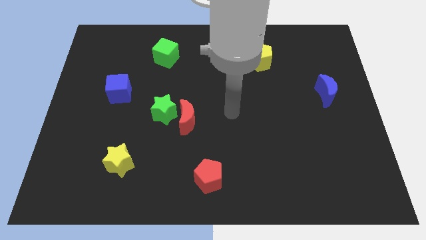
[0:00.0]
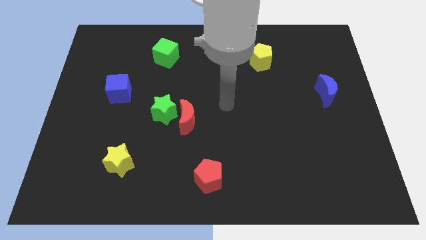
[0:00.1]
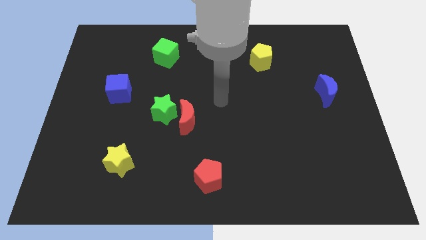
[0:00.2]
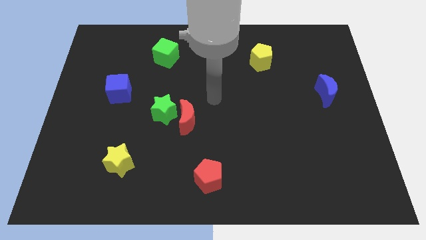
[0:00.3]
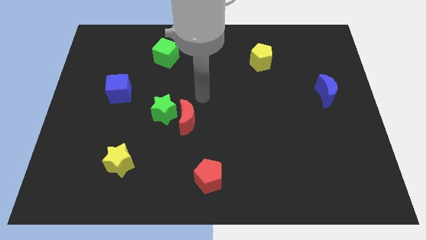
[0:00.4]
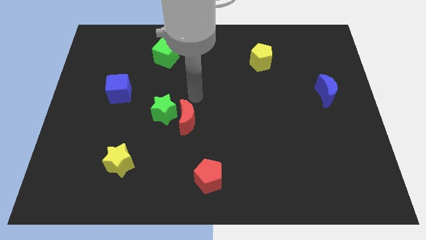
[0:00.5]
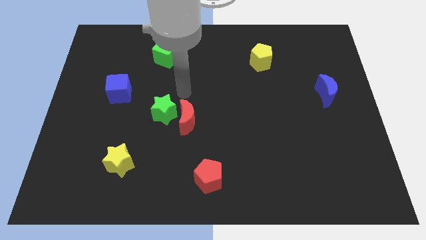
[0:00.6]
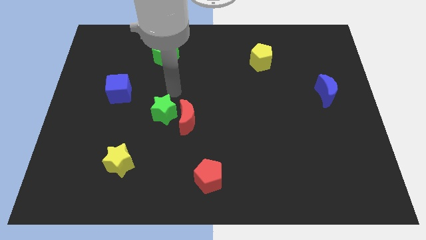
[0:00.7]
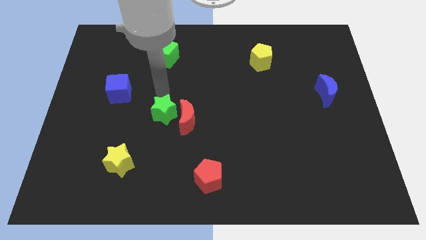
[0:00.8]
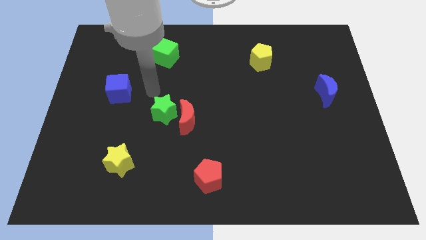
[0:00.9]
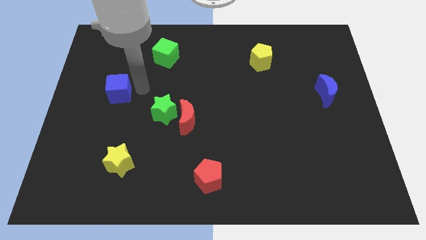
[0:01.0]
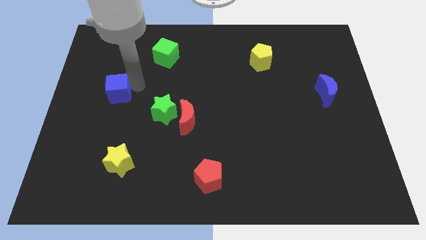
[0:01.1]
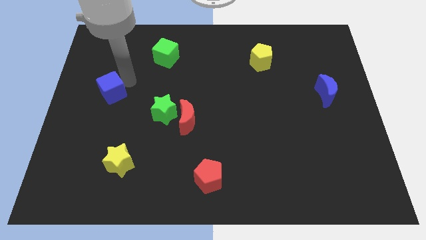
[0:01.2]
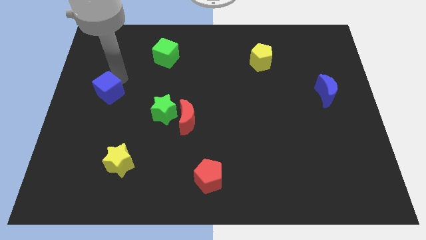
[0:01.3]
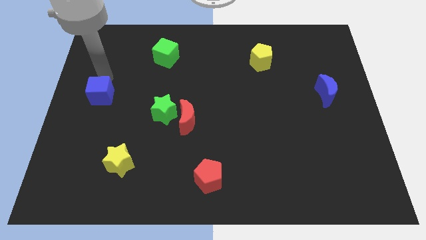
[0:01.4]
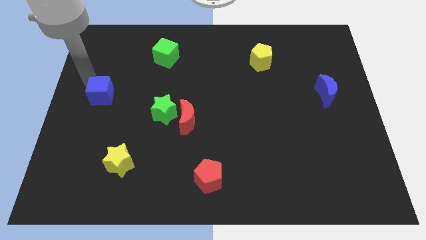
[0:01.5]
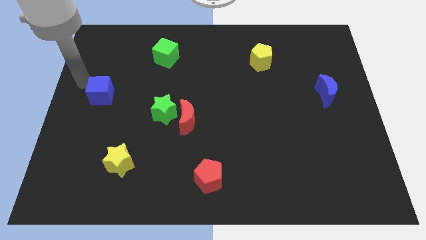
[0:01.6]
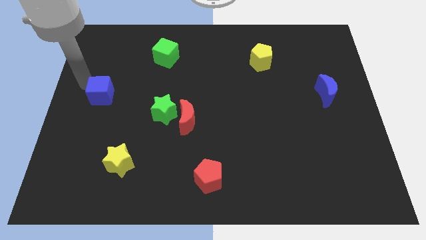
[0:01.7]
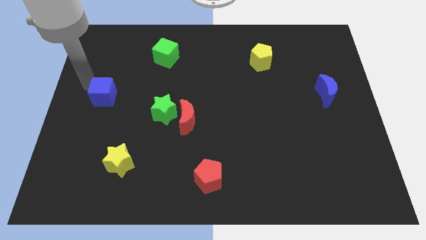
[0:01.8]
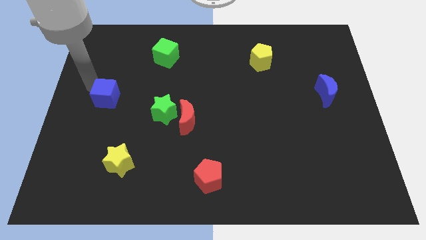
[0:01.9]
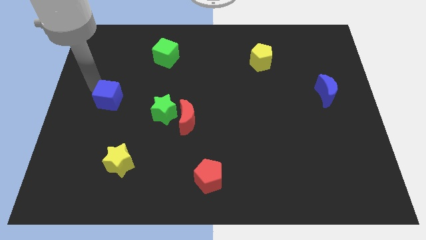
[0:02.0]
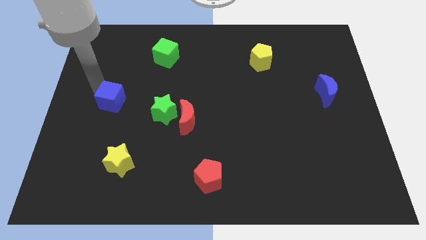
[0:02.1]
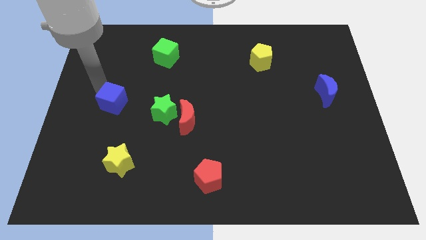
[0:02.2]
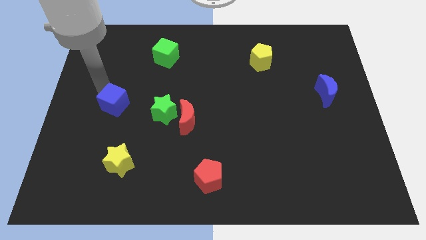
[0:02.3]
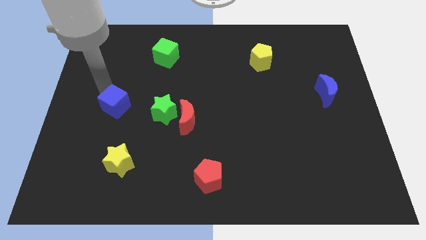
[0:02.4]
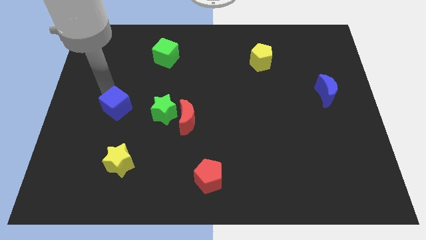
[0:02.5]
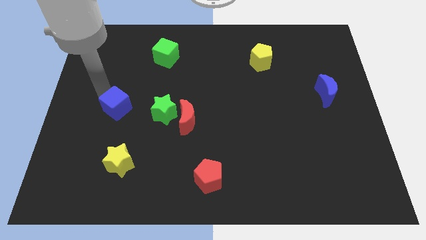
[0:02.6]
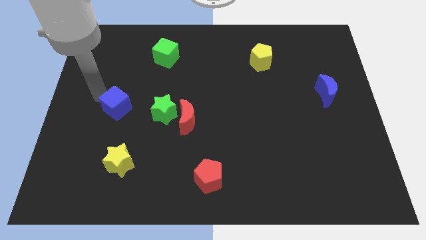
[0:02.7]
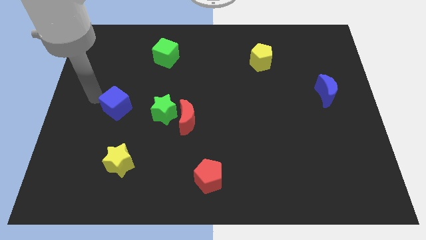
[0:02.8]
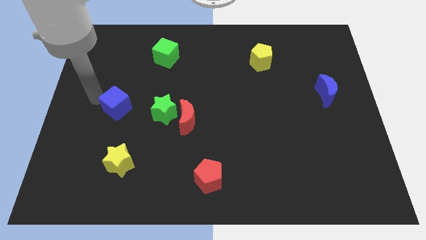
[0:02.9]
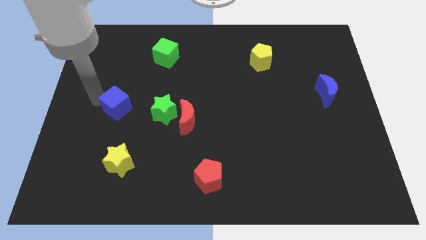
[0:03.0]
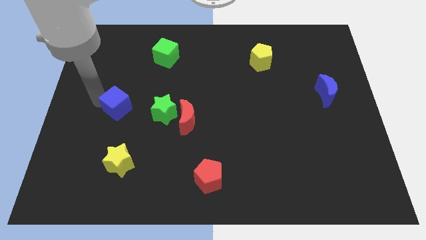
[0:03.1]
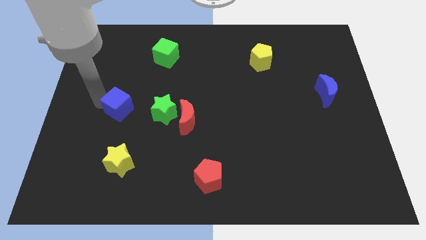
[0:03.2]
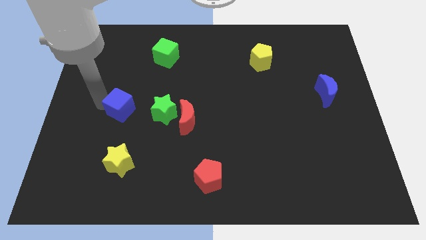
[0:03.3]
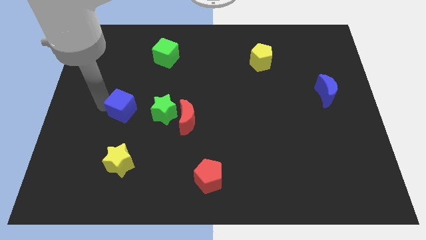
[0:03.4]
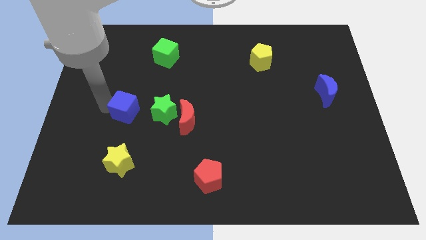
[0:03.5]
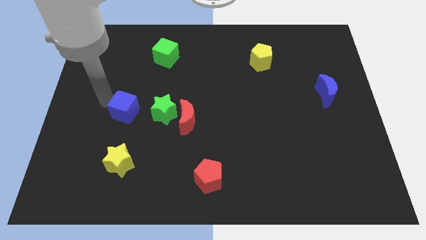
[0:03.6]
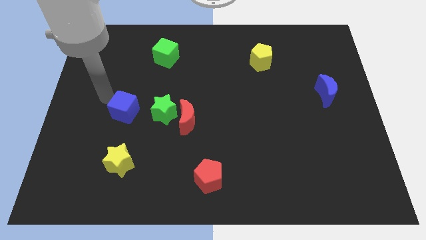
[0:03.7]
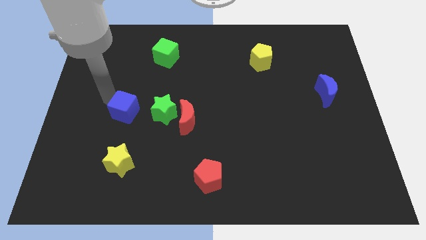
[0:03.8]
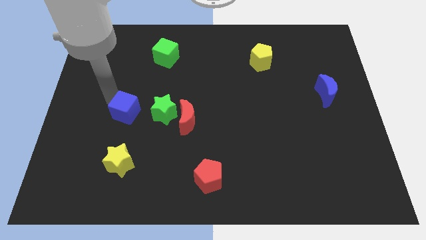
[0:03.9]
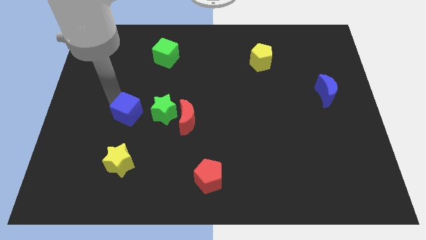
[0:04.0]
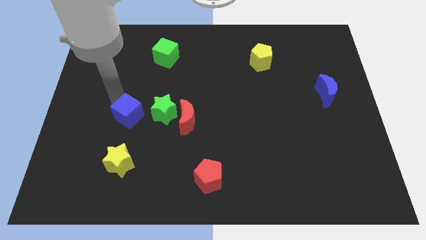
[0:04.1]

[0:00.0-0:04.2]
move the blue cube a little bit diagonally down and right

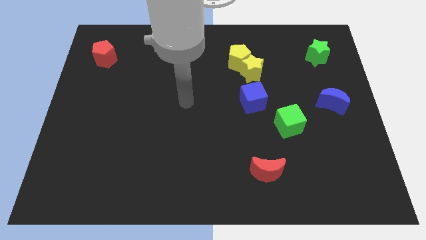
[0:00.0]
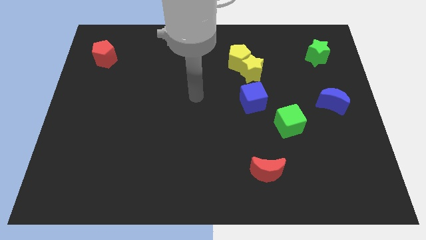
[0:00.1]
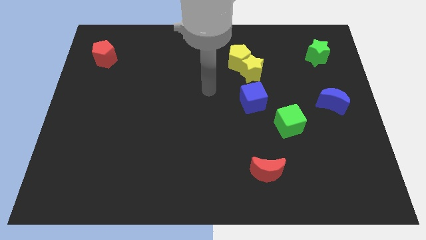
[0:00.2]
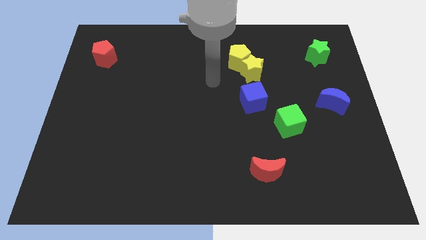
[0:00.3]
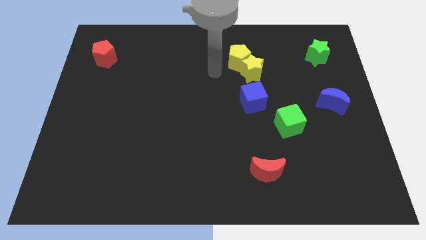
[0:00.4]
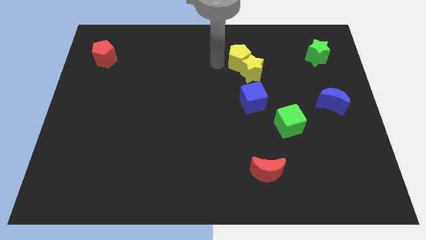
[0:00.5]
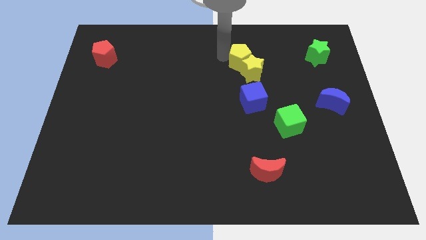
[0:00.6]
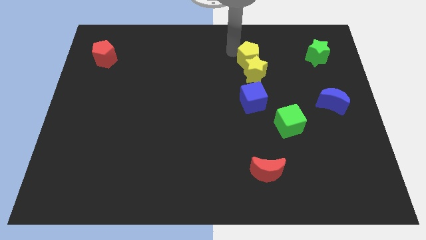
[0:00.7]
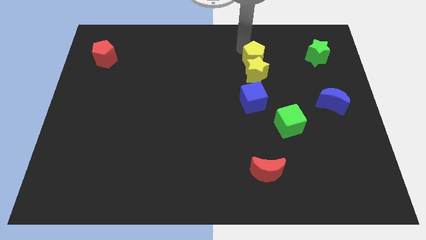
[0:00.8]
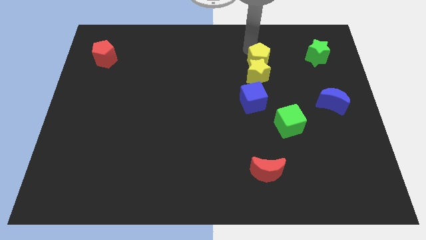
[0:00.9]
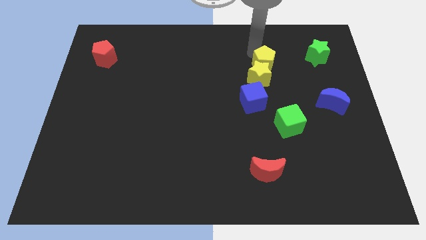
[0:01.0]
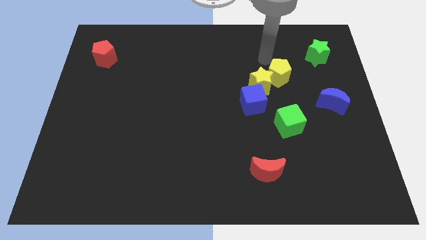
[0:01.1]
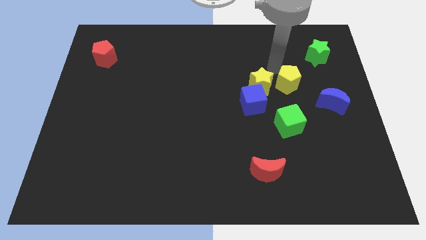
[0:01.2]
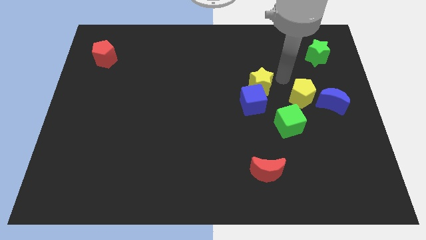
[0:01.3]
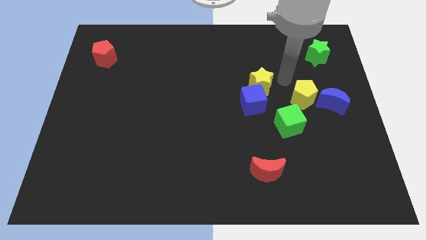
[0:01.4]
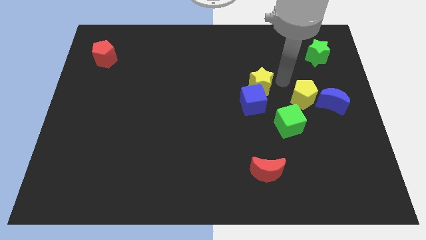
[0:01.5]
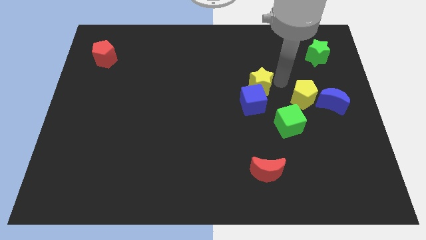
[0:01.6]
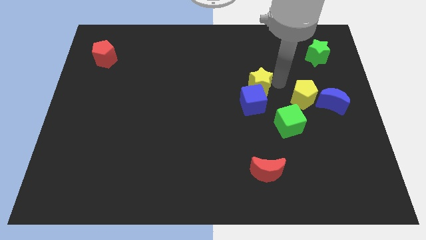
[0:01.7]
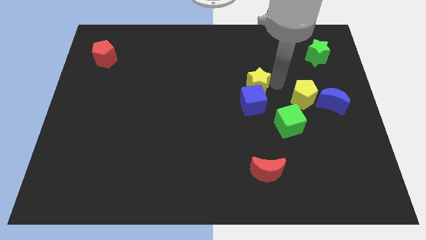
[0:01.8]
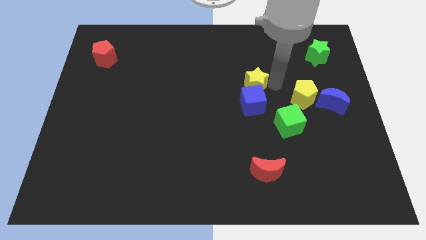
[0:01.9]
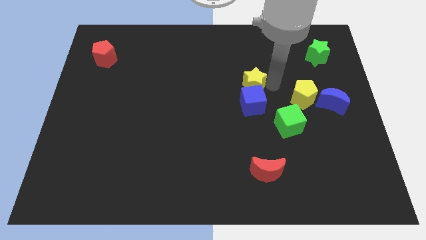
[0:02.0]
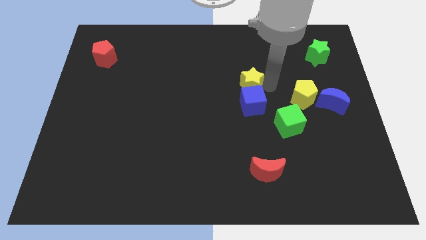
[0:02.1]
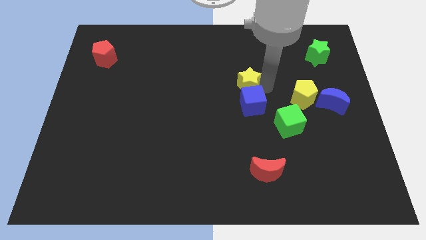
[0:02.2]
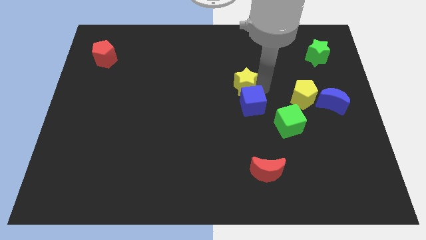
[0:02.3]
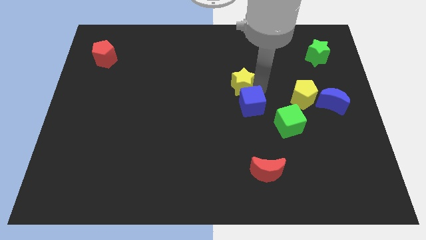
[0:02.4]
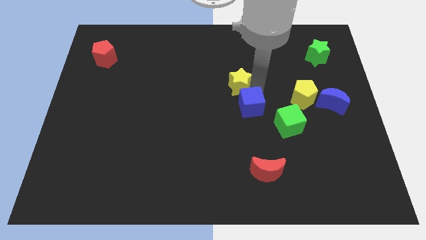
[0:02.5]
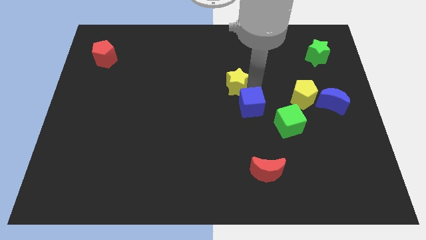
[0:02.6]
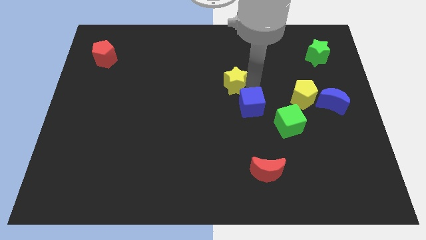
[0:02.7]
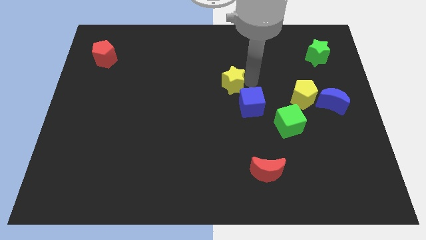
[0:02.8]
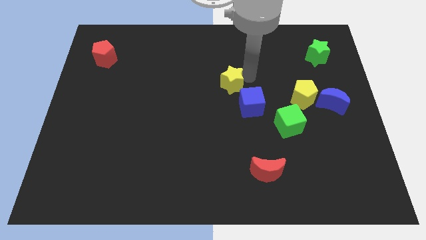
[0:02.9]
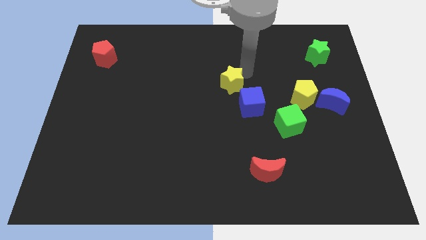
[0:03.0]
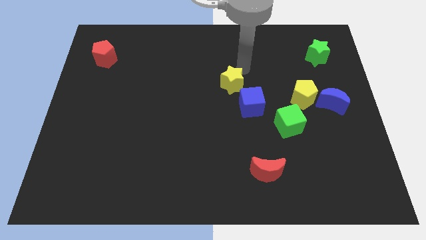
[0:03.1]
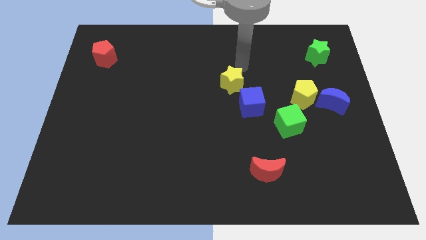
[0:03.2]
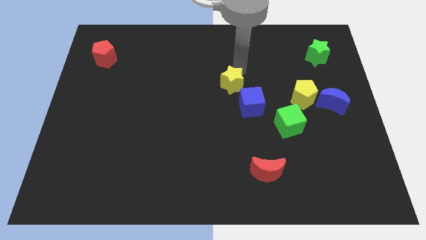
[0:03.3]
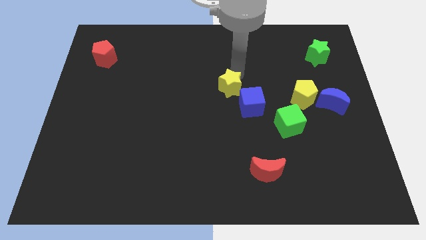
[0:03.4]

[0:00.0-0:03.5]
slightly slide the yellow star diagonally down and left

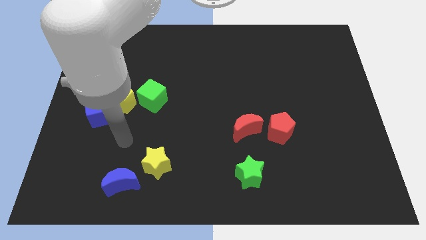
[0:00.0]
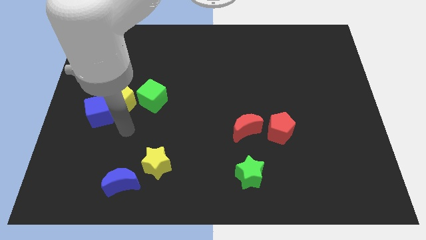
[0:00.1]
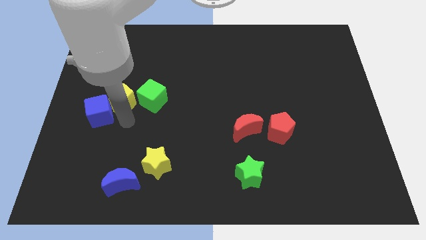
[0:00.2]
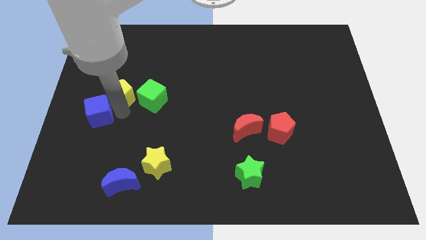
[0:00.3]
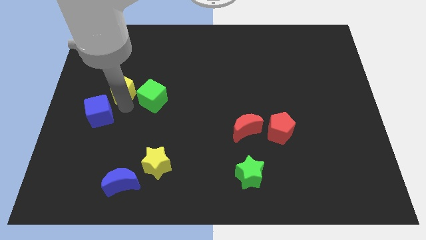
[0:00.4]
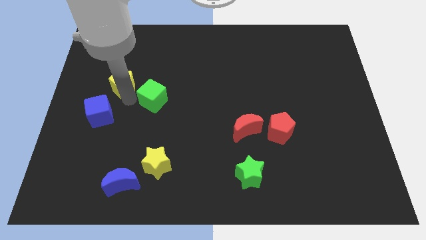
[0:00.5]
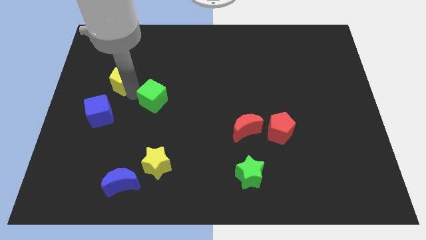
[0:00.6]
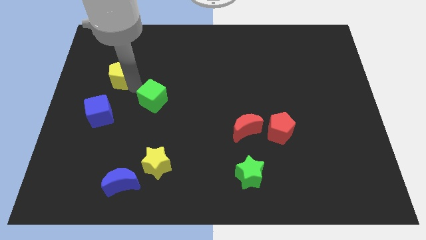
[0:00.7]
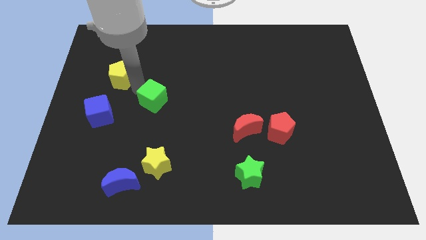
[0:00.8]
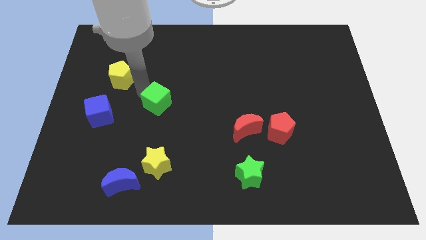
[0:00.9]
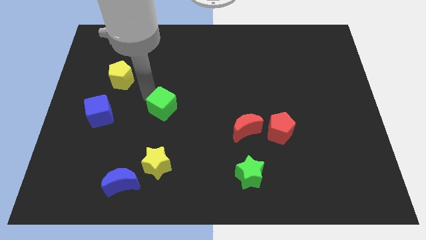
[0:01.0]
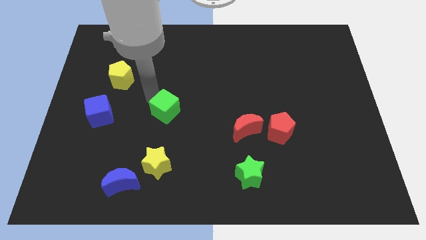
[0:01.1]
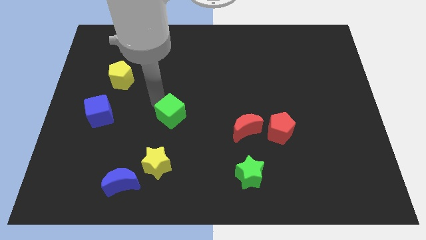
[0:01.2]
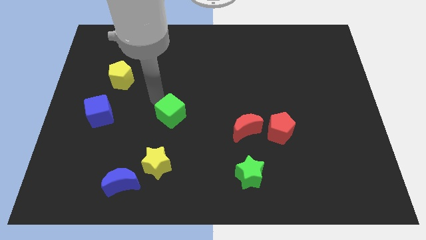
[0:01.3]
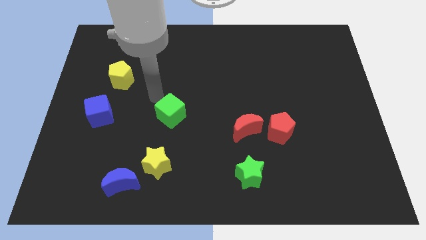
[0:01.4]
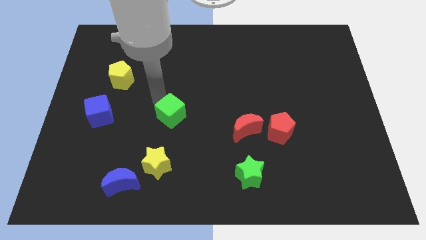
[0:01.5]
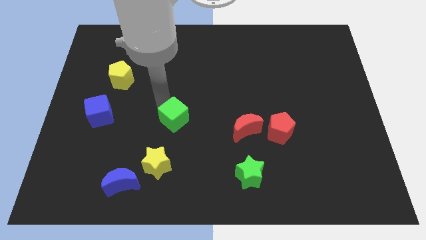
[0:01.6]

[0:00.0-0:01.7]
move the green cube downwards and to the right diagonally a little
